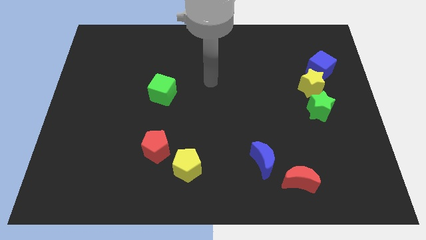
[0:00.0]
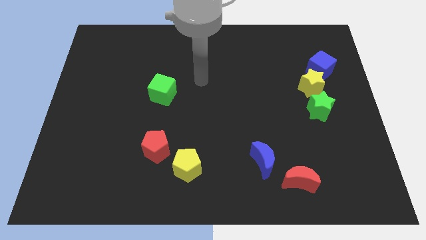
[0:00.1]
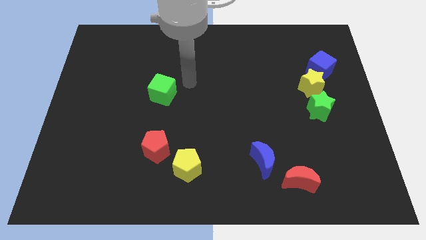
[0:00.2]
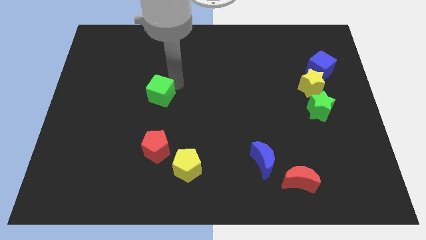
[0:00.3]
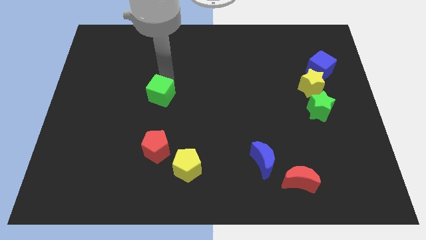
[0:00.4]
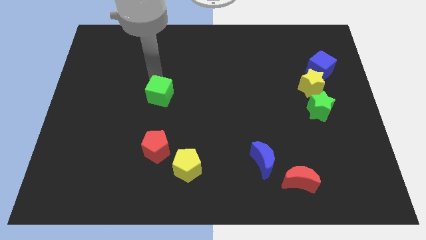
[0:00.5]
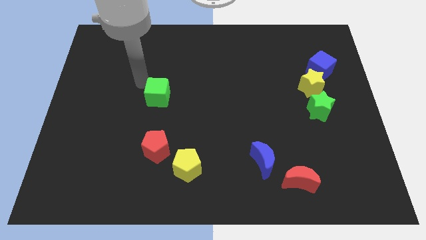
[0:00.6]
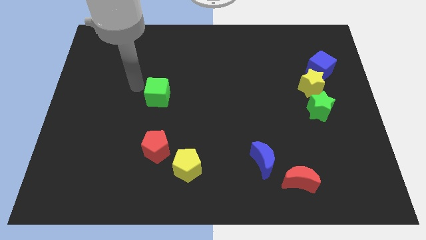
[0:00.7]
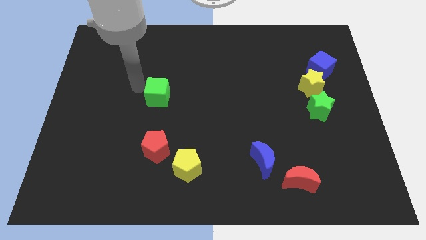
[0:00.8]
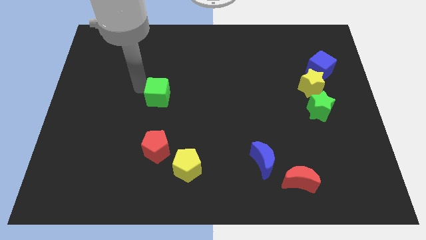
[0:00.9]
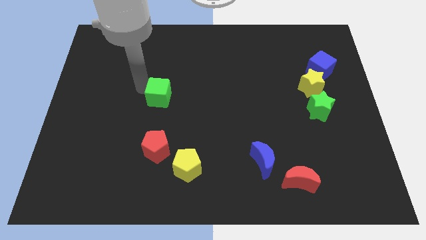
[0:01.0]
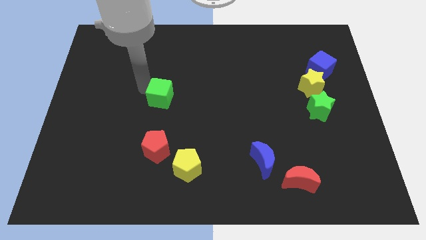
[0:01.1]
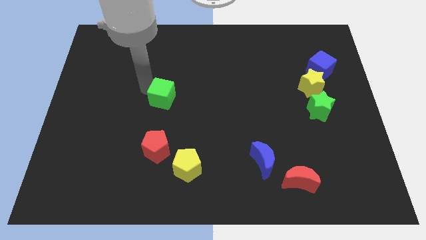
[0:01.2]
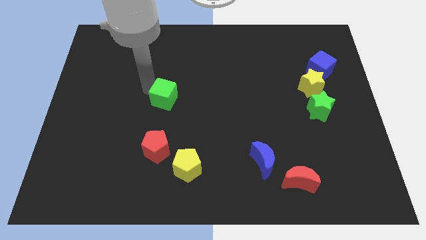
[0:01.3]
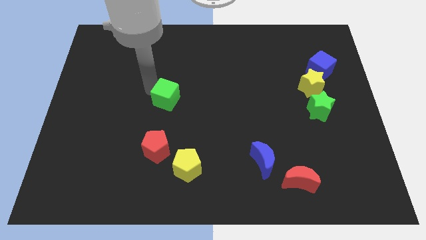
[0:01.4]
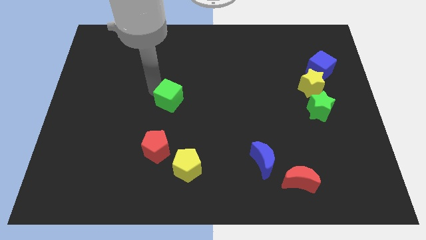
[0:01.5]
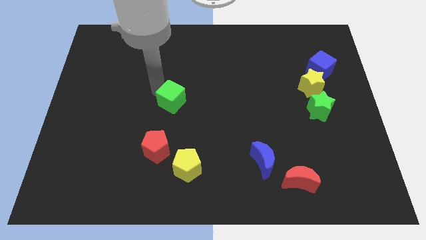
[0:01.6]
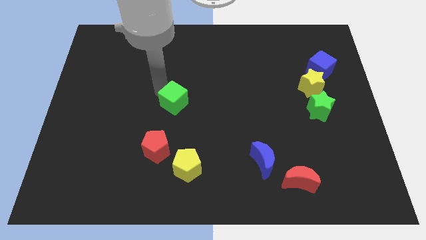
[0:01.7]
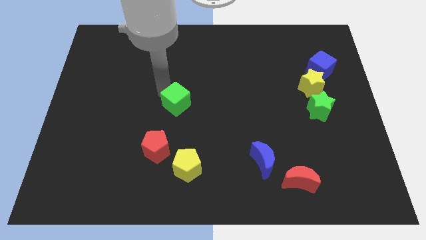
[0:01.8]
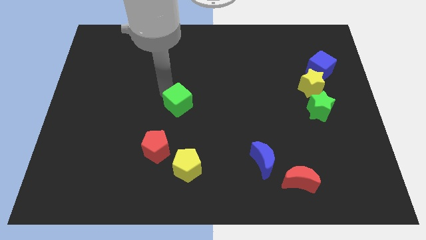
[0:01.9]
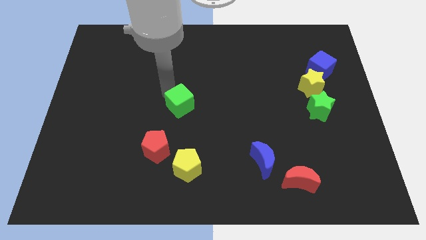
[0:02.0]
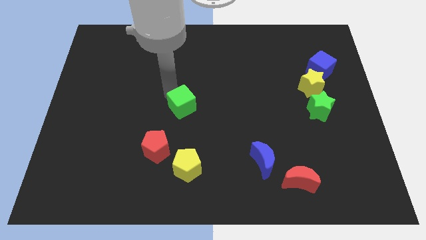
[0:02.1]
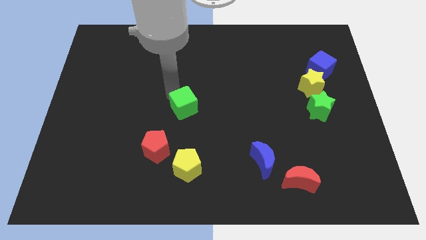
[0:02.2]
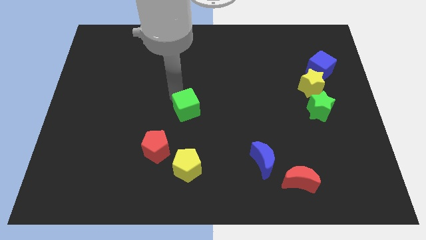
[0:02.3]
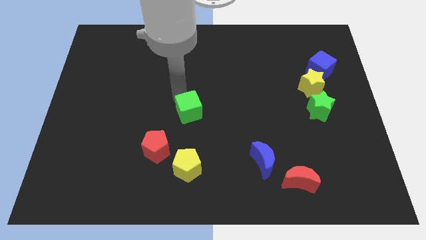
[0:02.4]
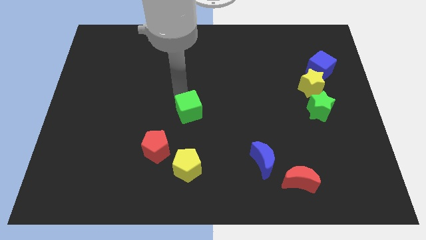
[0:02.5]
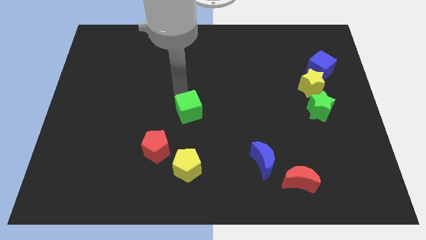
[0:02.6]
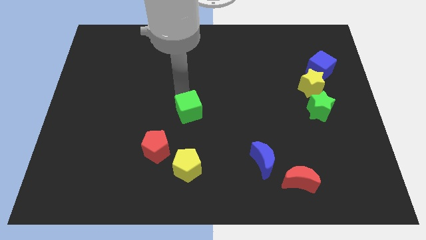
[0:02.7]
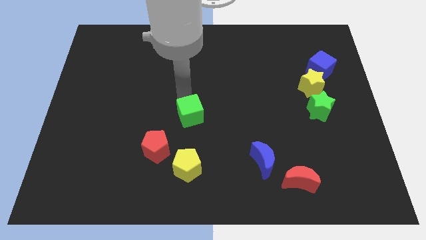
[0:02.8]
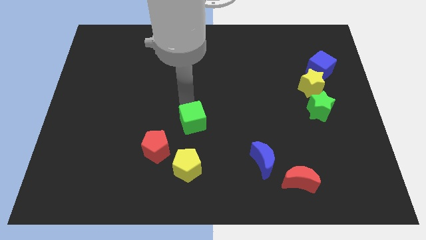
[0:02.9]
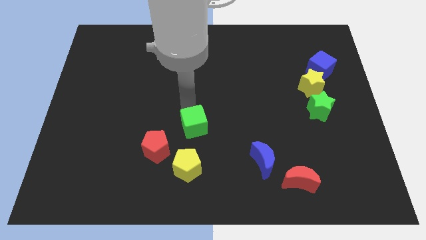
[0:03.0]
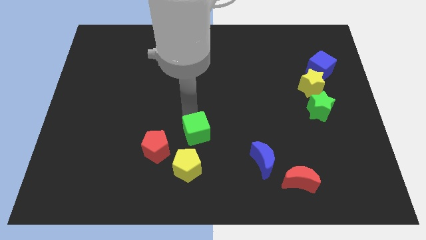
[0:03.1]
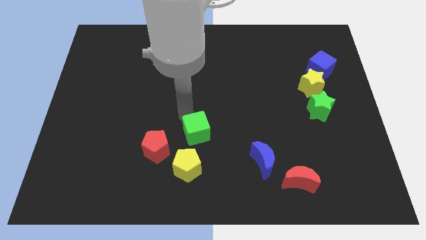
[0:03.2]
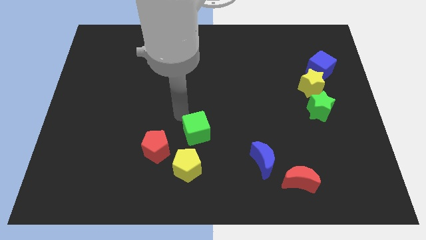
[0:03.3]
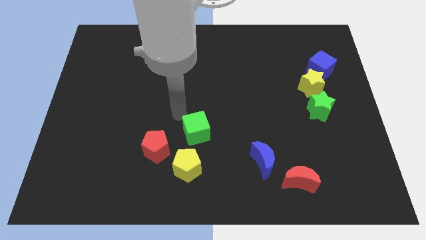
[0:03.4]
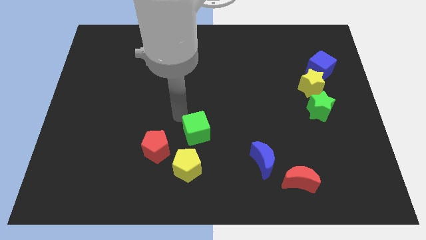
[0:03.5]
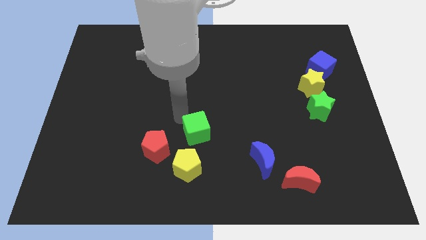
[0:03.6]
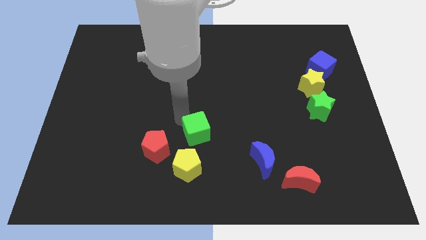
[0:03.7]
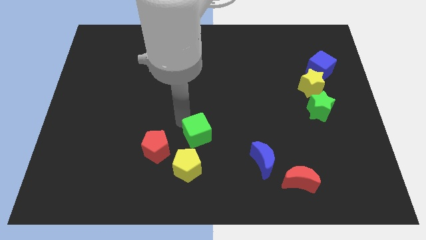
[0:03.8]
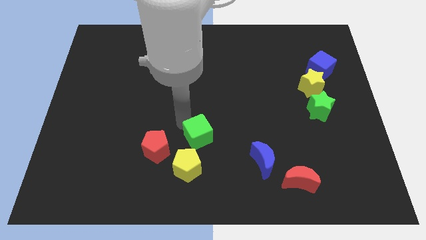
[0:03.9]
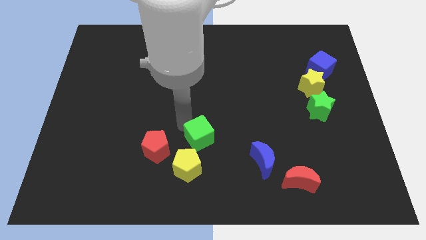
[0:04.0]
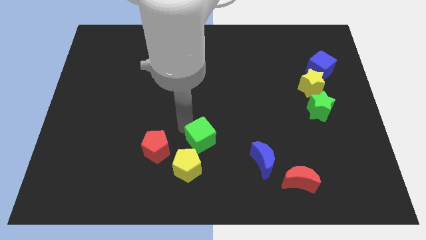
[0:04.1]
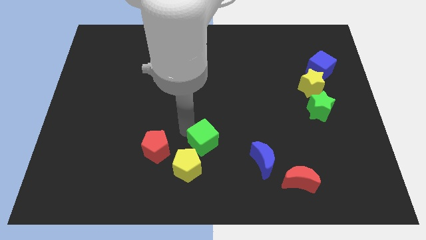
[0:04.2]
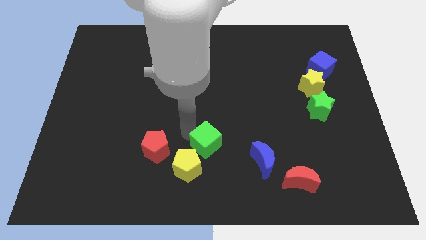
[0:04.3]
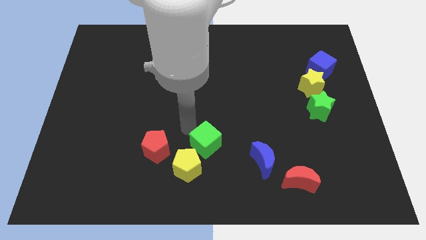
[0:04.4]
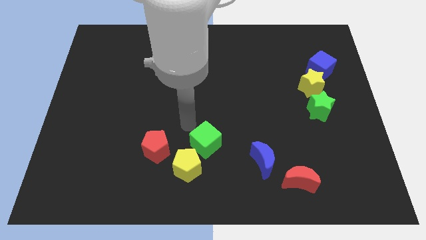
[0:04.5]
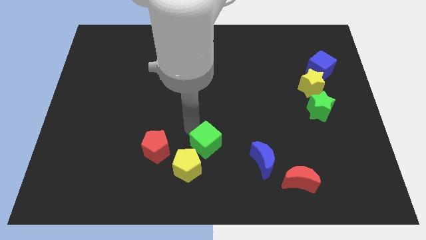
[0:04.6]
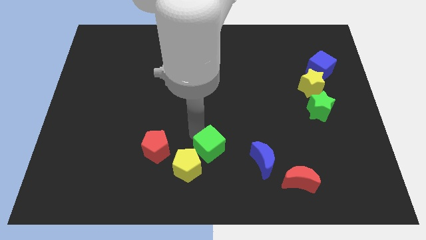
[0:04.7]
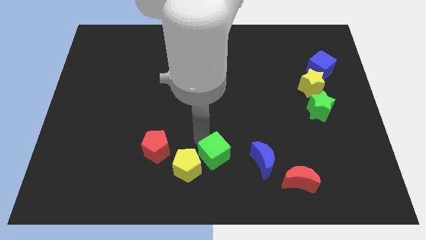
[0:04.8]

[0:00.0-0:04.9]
move the green cube diagonally downwards and right

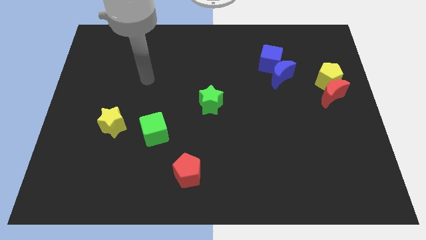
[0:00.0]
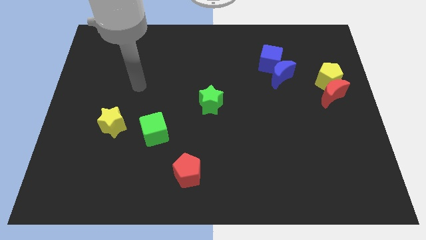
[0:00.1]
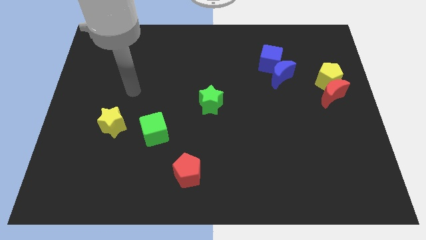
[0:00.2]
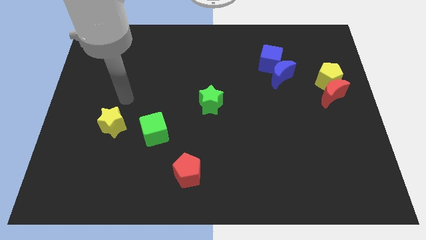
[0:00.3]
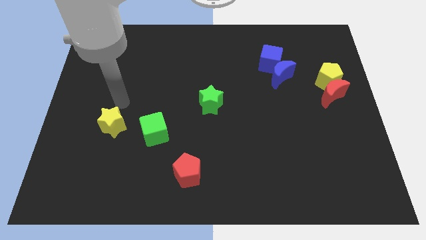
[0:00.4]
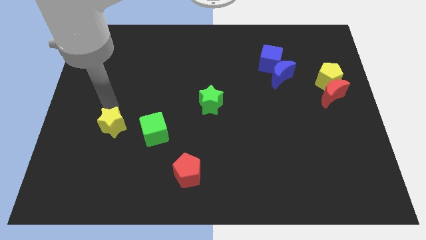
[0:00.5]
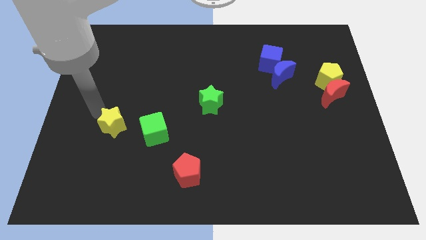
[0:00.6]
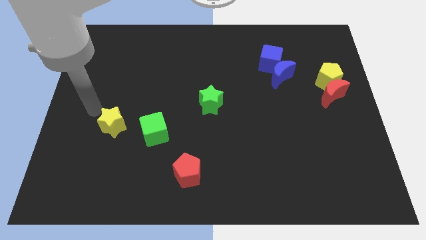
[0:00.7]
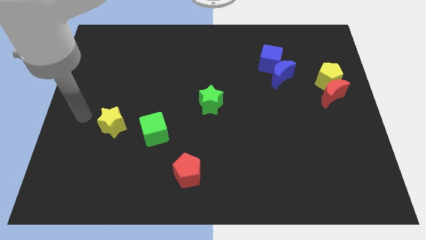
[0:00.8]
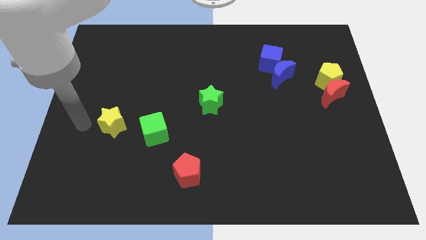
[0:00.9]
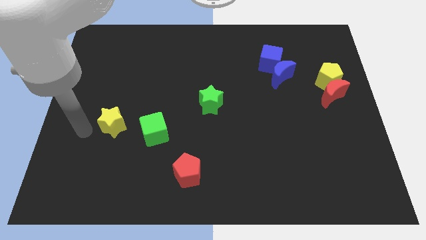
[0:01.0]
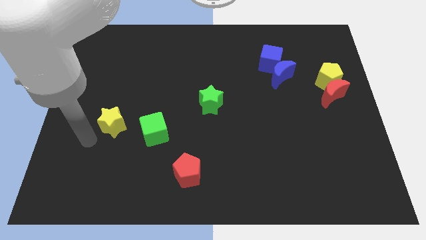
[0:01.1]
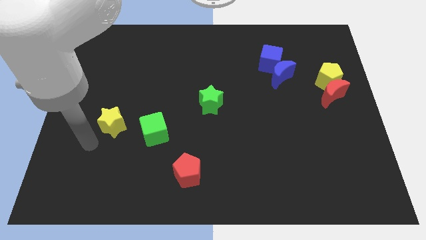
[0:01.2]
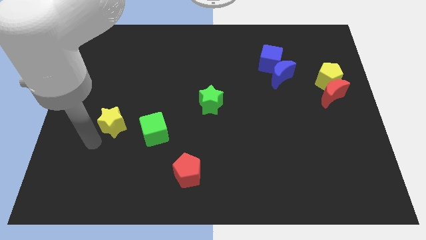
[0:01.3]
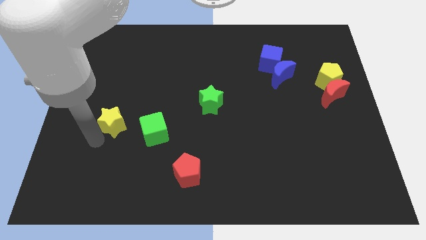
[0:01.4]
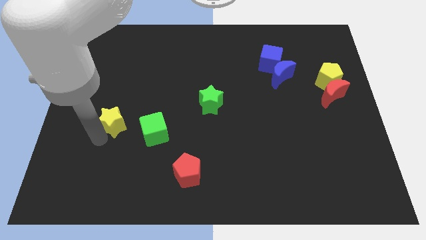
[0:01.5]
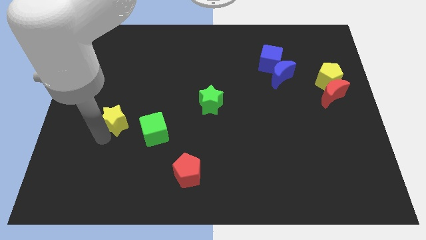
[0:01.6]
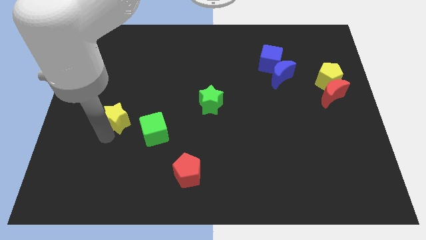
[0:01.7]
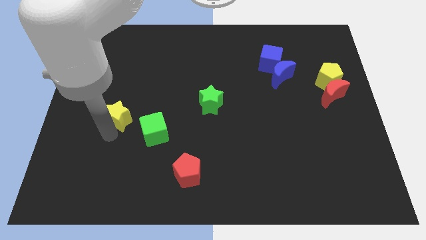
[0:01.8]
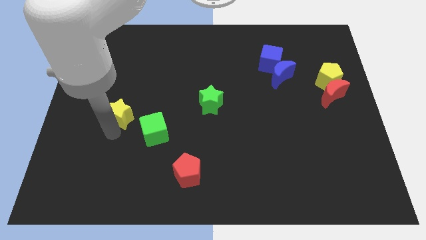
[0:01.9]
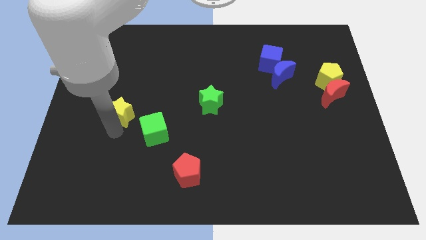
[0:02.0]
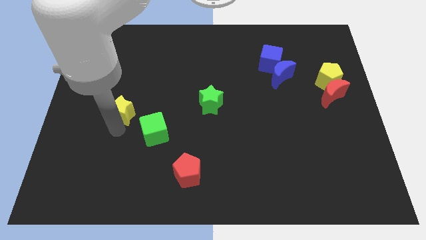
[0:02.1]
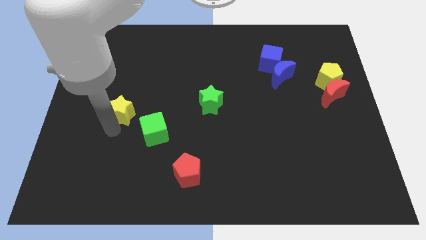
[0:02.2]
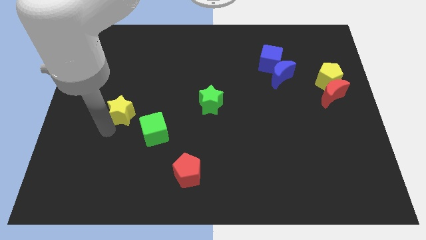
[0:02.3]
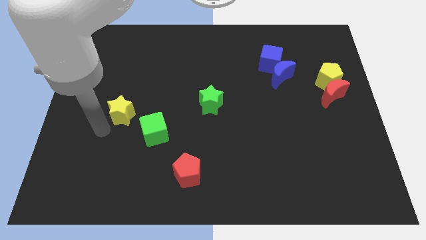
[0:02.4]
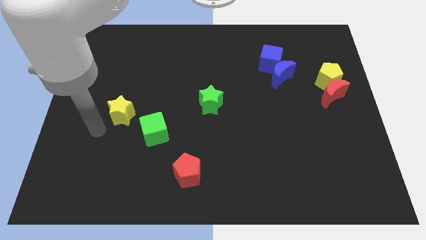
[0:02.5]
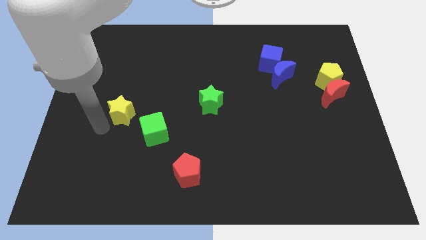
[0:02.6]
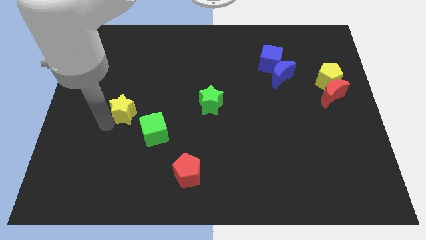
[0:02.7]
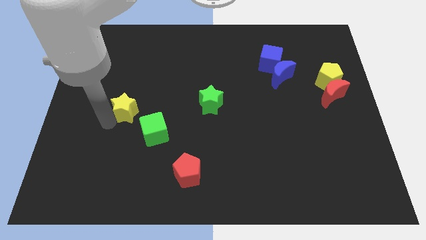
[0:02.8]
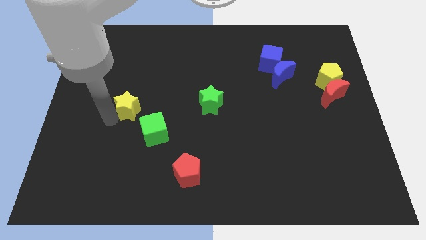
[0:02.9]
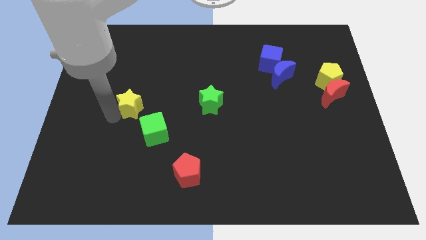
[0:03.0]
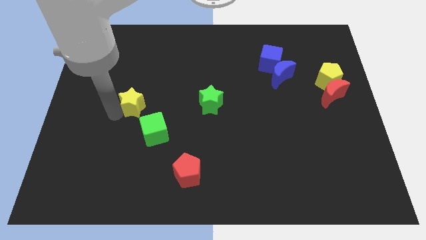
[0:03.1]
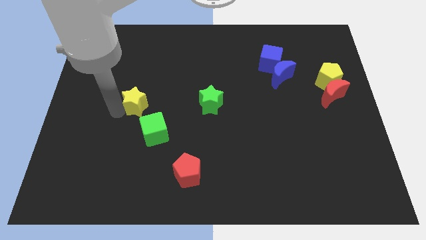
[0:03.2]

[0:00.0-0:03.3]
push the yellow star a little diagonally up and right
